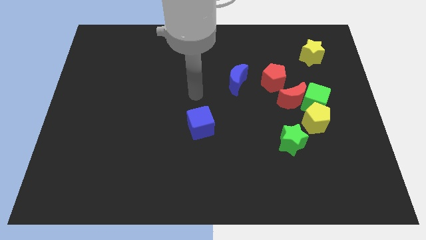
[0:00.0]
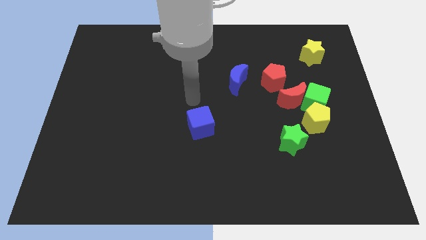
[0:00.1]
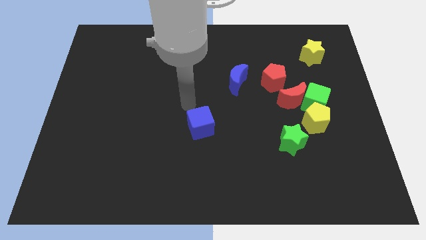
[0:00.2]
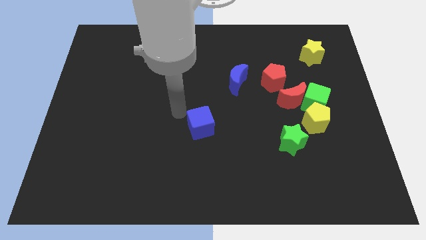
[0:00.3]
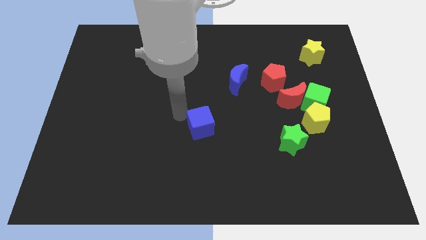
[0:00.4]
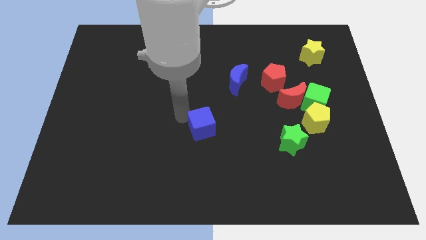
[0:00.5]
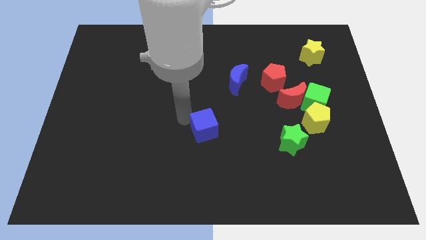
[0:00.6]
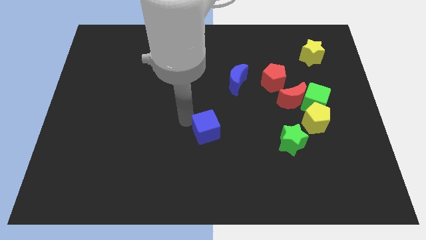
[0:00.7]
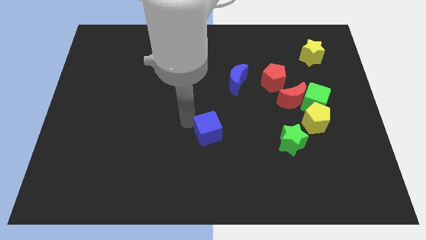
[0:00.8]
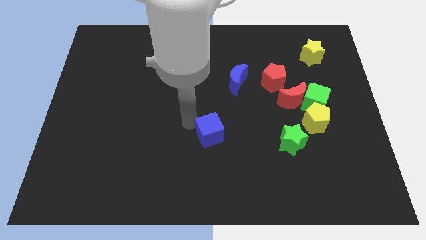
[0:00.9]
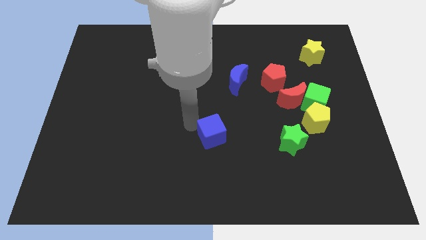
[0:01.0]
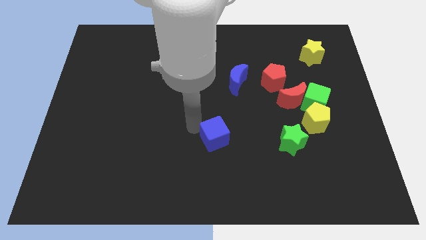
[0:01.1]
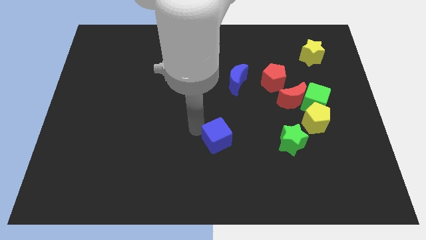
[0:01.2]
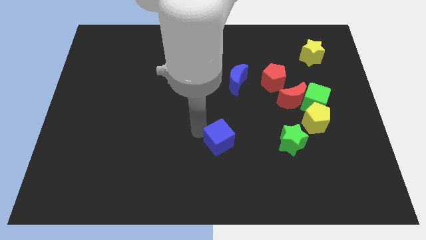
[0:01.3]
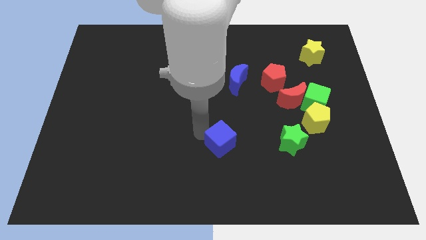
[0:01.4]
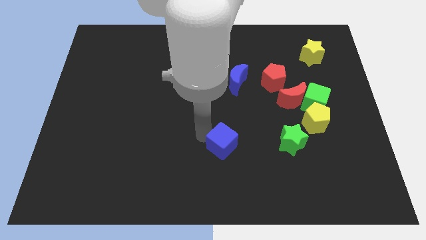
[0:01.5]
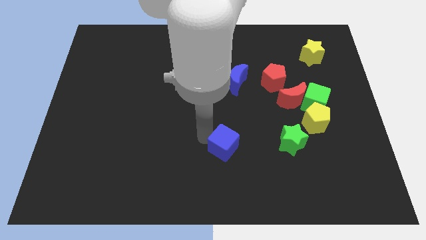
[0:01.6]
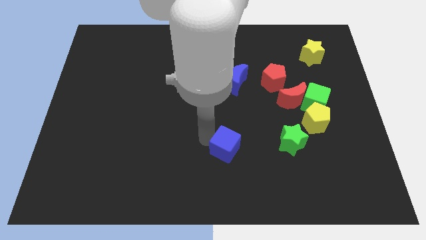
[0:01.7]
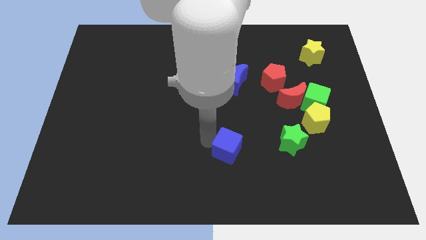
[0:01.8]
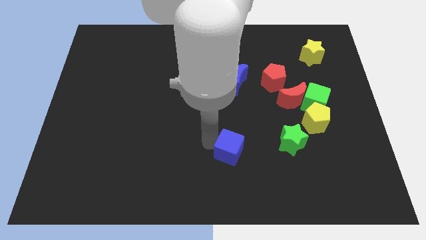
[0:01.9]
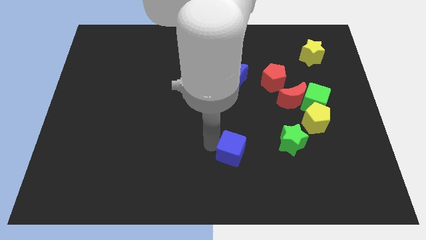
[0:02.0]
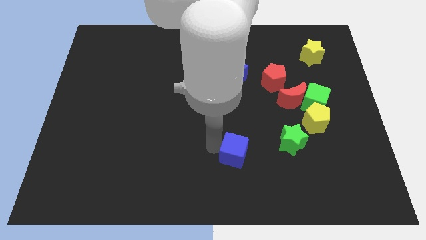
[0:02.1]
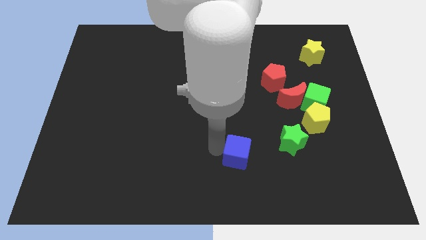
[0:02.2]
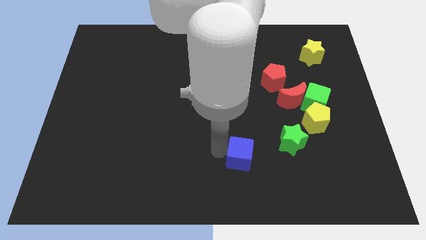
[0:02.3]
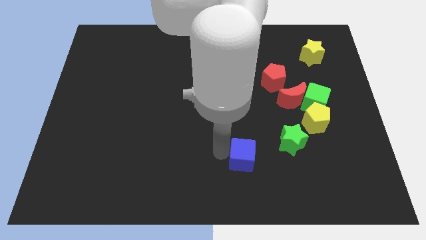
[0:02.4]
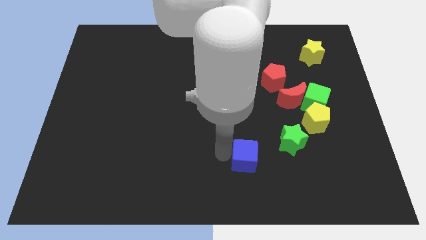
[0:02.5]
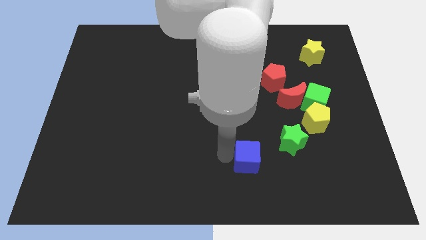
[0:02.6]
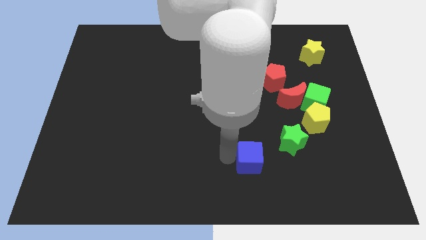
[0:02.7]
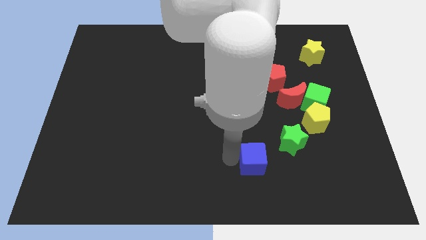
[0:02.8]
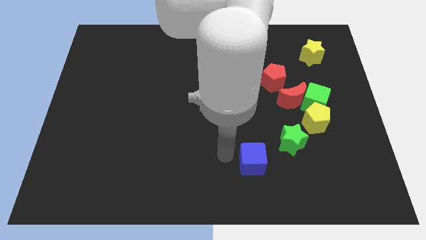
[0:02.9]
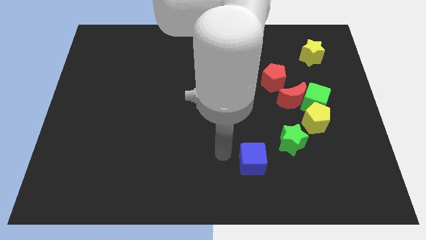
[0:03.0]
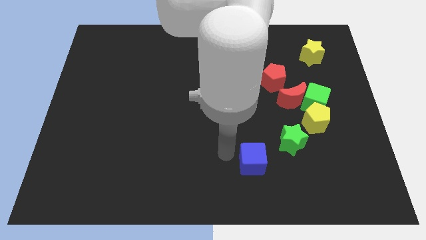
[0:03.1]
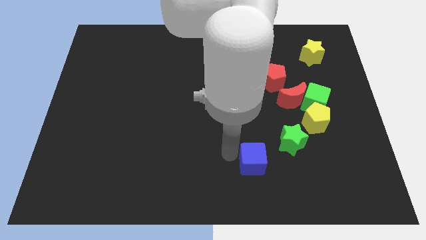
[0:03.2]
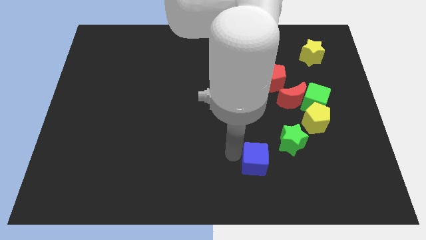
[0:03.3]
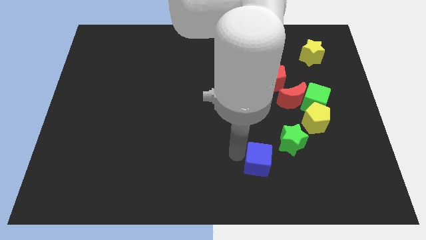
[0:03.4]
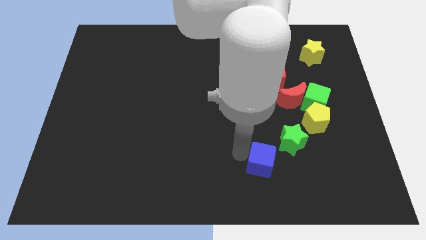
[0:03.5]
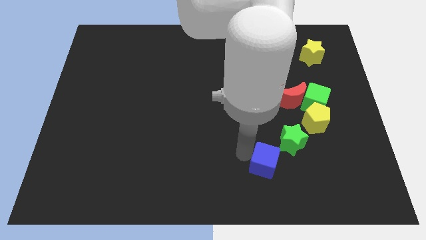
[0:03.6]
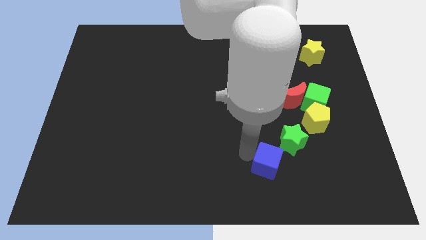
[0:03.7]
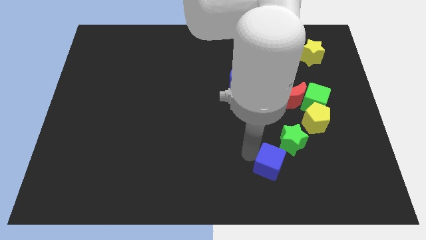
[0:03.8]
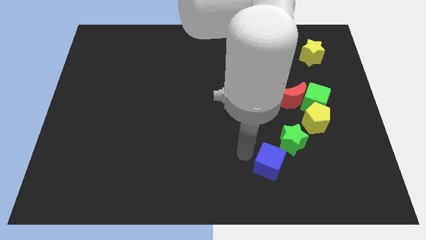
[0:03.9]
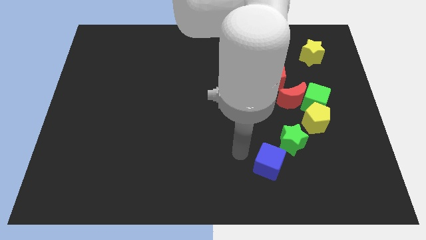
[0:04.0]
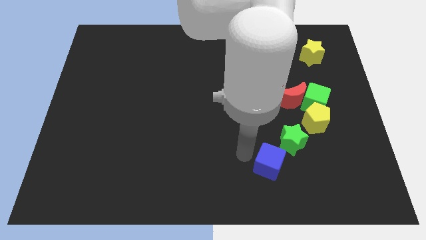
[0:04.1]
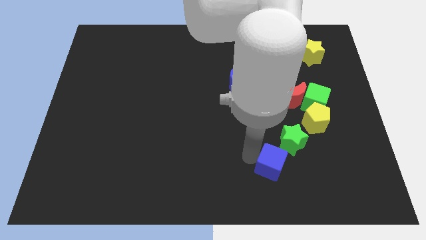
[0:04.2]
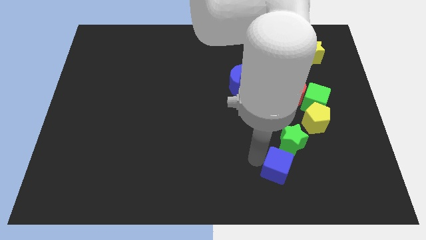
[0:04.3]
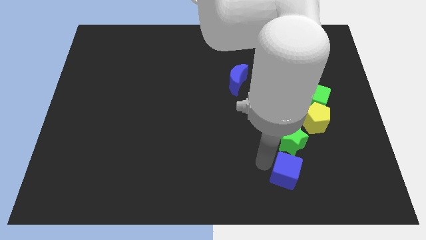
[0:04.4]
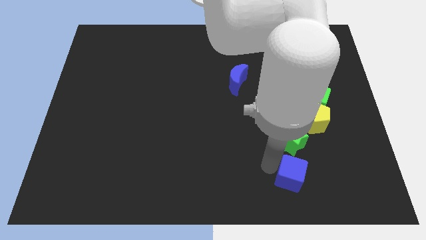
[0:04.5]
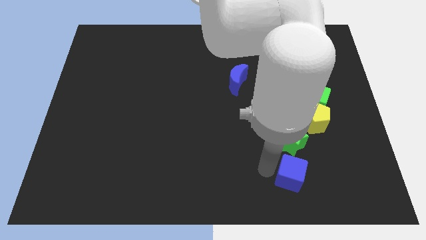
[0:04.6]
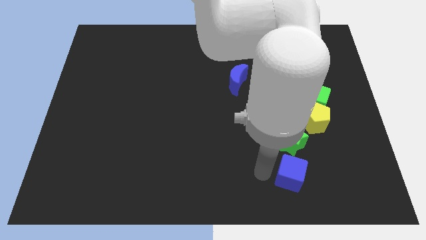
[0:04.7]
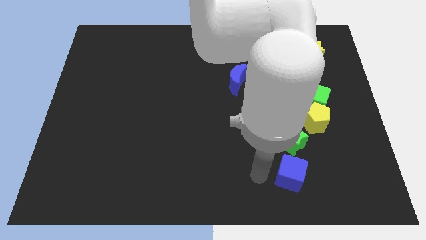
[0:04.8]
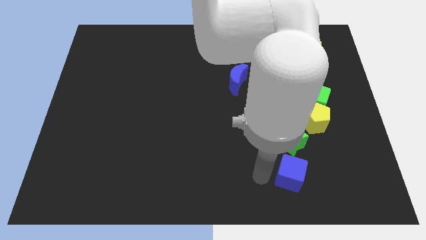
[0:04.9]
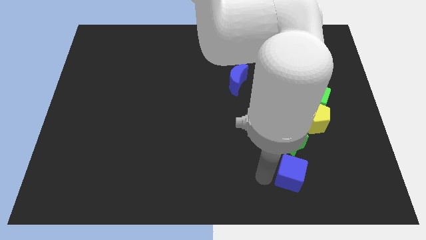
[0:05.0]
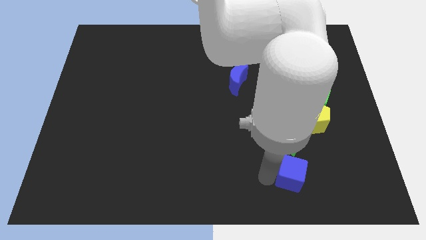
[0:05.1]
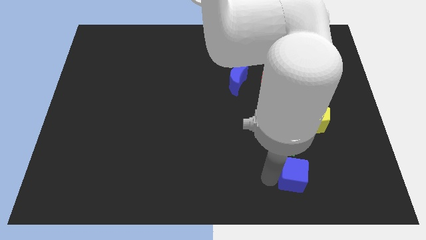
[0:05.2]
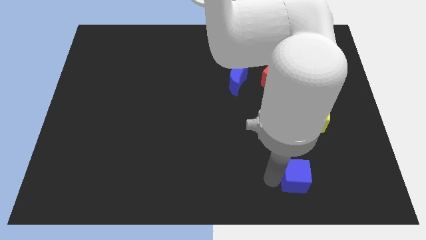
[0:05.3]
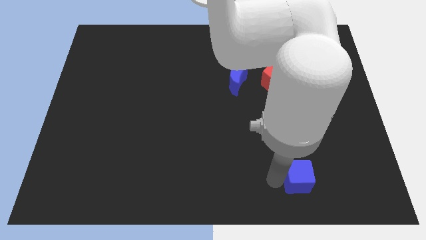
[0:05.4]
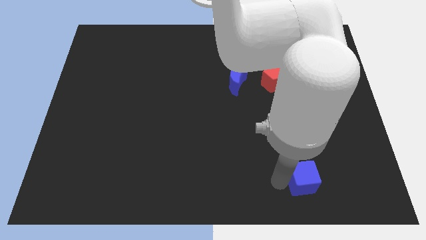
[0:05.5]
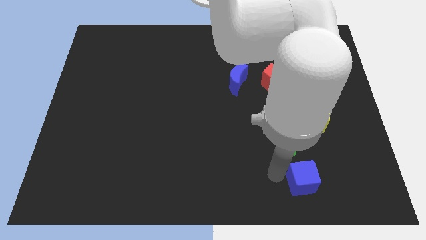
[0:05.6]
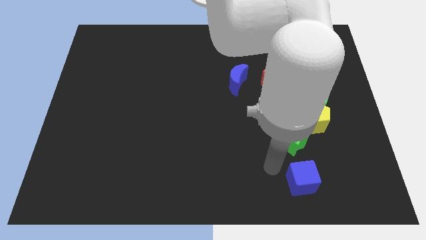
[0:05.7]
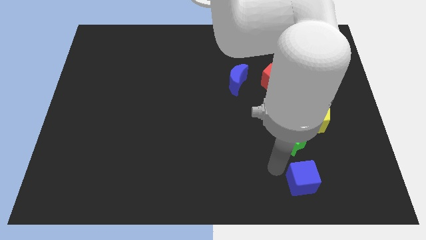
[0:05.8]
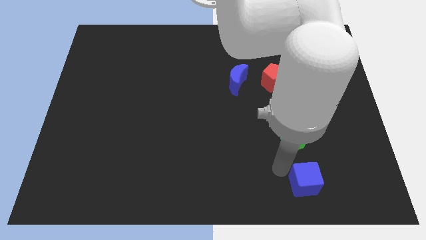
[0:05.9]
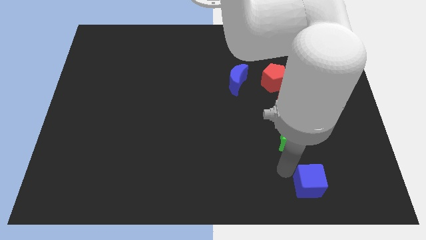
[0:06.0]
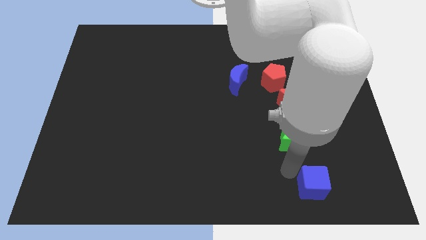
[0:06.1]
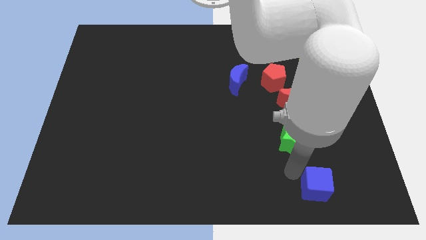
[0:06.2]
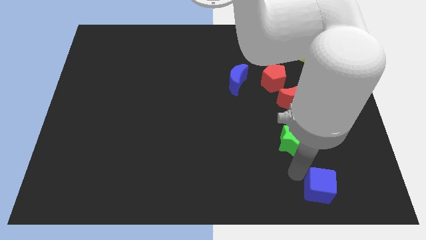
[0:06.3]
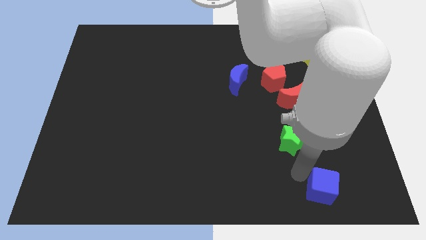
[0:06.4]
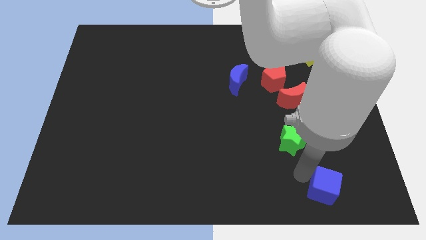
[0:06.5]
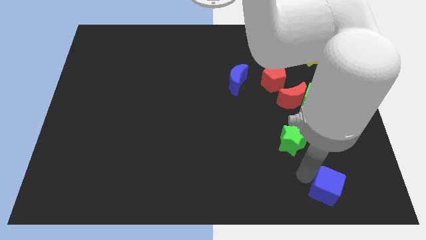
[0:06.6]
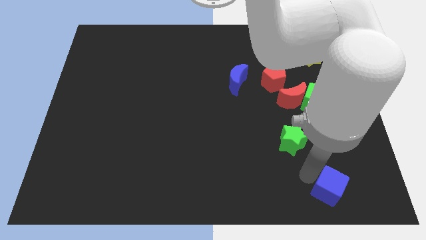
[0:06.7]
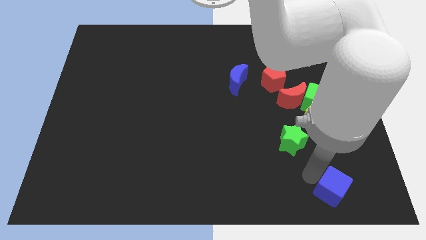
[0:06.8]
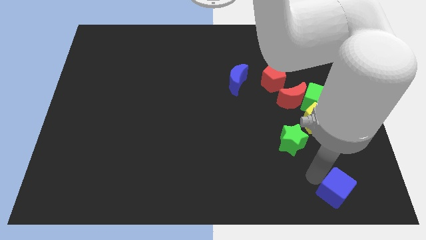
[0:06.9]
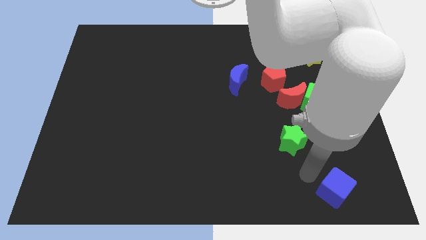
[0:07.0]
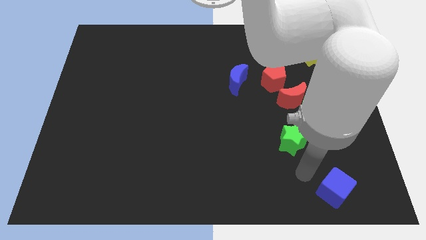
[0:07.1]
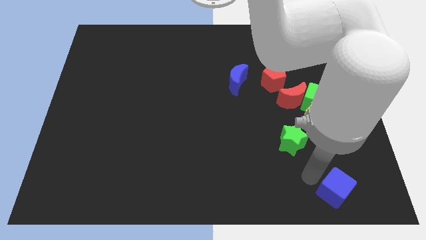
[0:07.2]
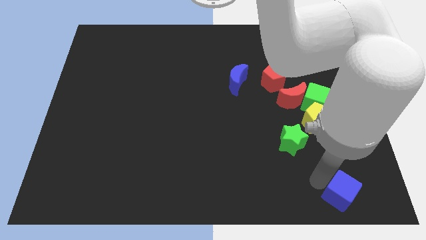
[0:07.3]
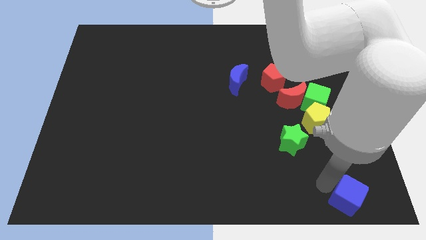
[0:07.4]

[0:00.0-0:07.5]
move the blue cube to the lower right corner
